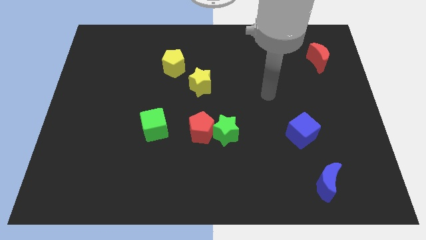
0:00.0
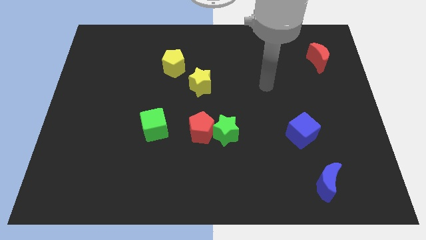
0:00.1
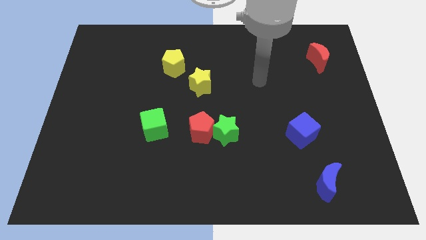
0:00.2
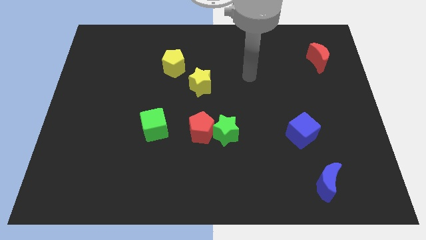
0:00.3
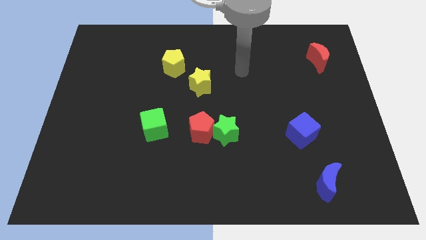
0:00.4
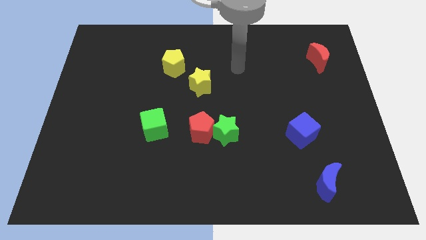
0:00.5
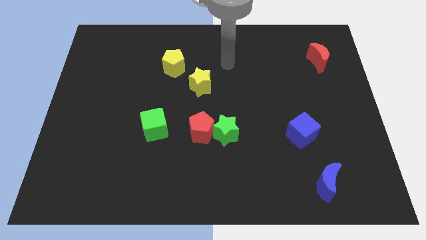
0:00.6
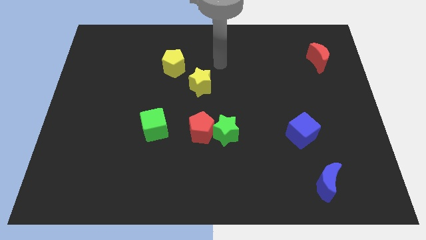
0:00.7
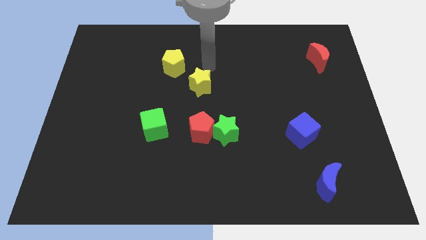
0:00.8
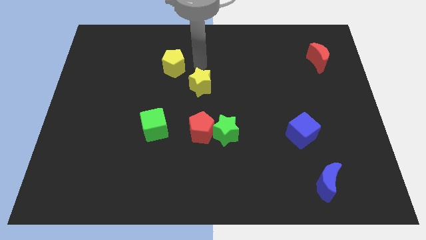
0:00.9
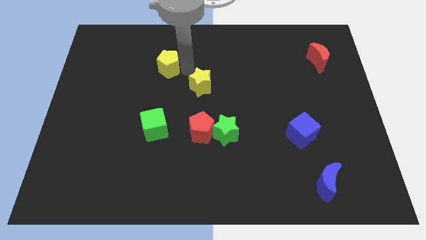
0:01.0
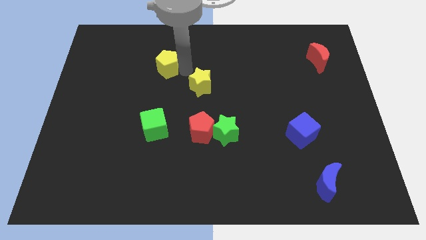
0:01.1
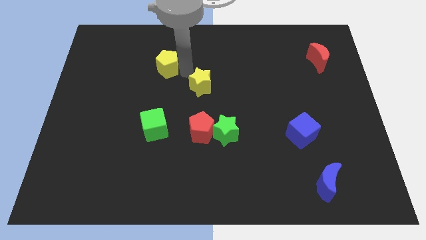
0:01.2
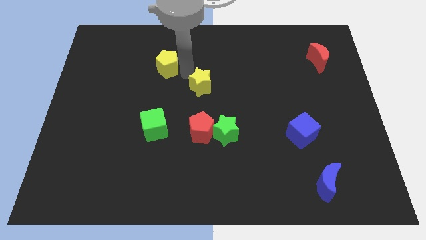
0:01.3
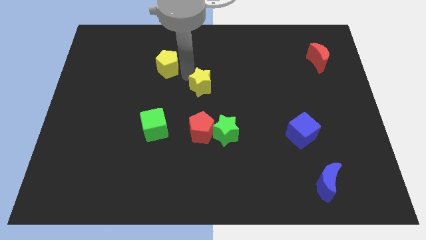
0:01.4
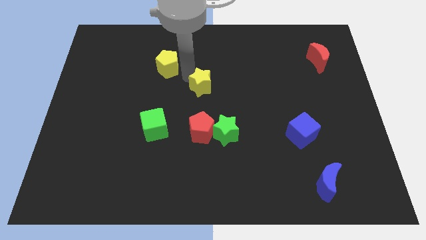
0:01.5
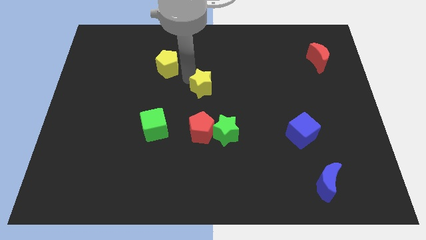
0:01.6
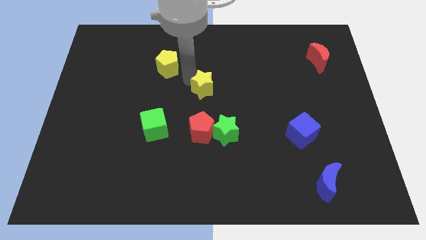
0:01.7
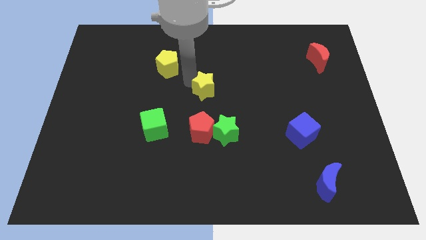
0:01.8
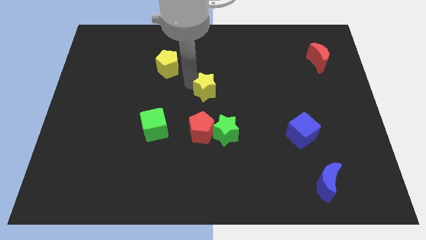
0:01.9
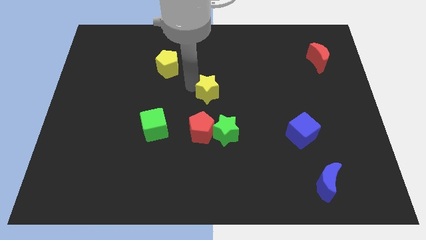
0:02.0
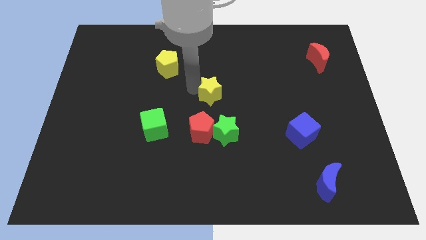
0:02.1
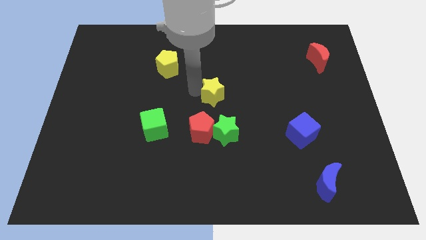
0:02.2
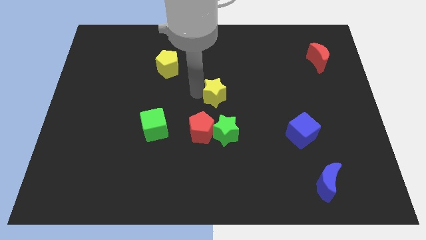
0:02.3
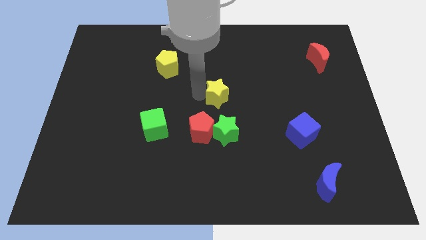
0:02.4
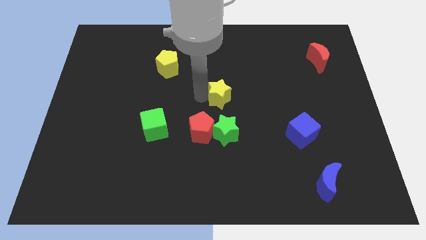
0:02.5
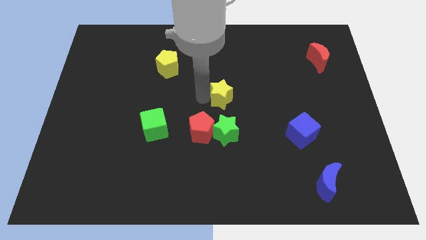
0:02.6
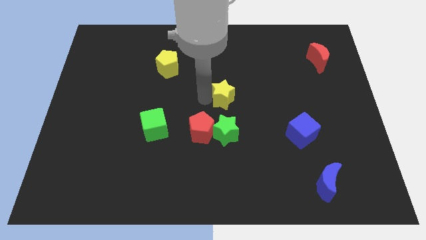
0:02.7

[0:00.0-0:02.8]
slide the yellow star somewhat downwards and right diagonally

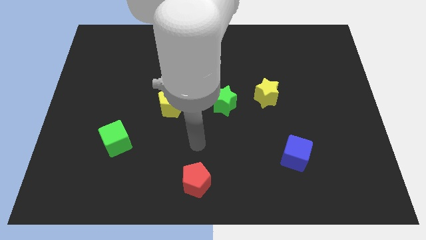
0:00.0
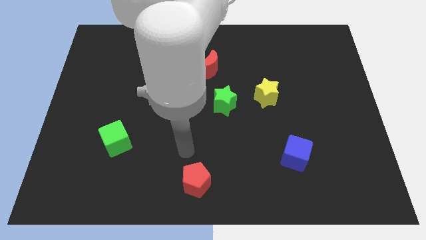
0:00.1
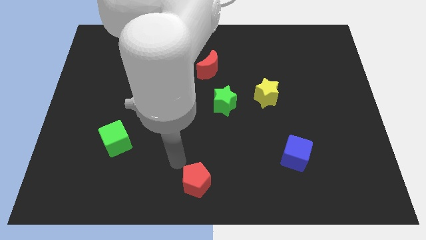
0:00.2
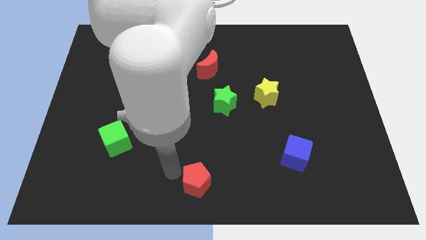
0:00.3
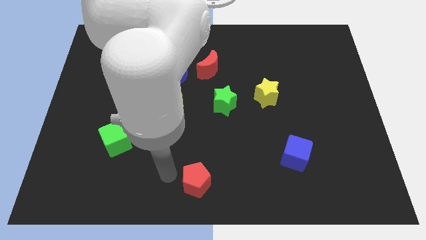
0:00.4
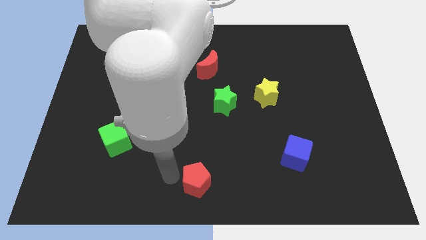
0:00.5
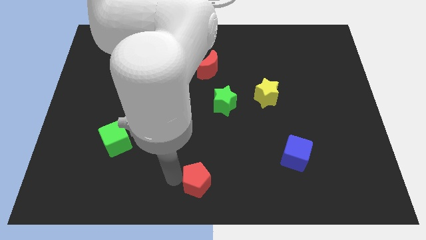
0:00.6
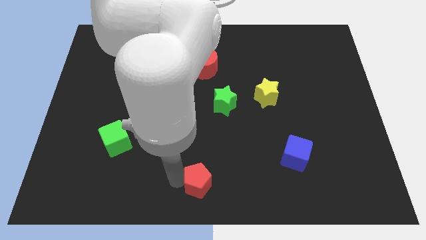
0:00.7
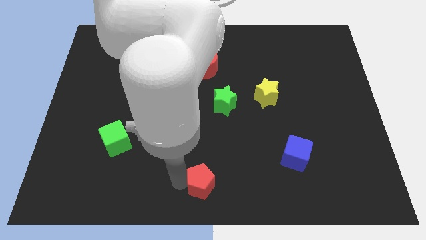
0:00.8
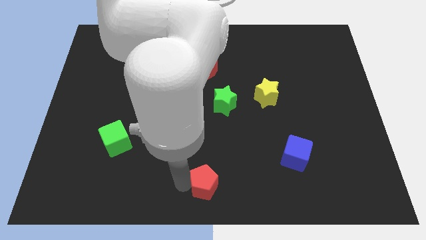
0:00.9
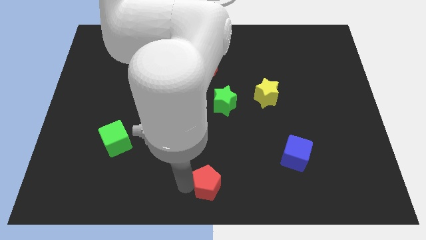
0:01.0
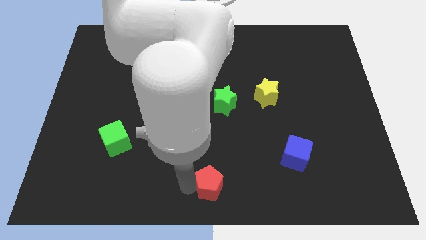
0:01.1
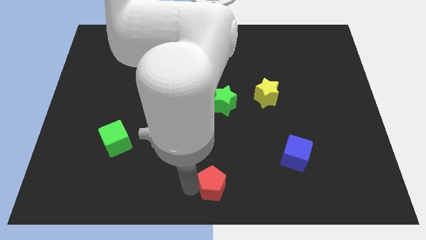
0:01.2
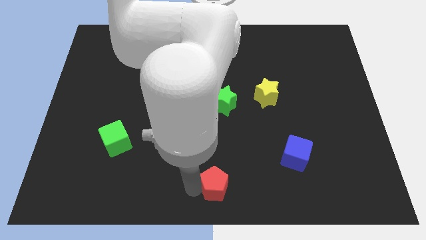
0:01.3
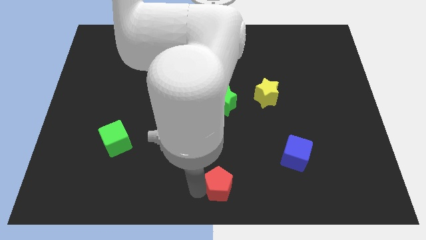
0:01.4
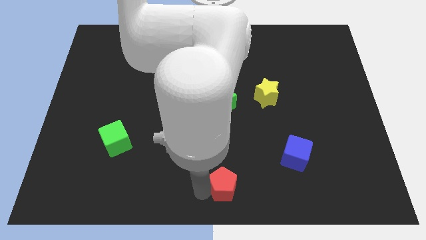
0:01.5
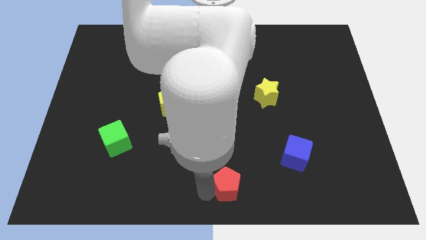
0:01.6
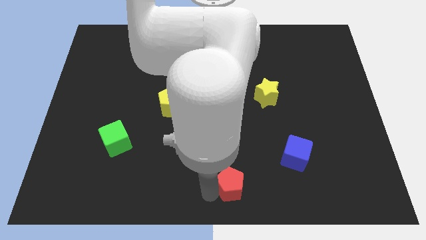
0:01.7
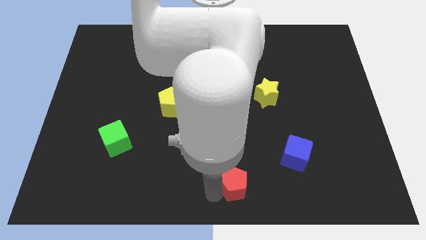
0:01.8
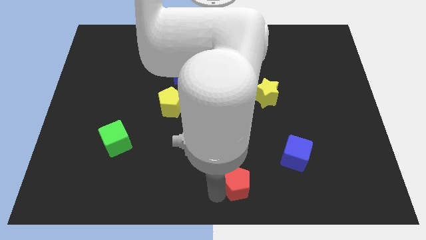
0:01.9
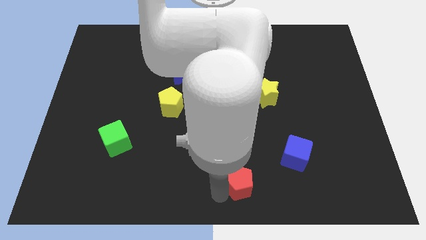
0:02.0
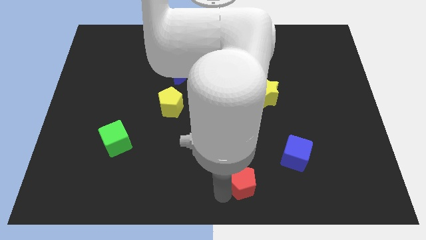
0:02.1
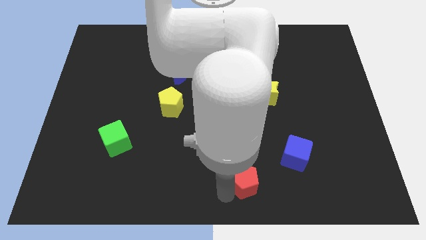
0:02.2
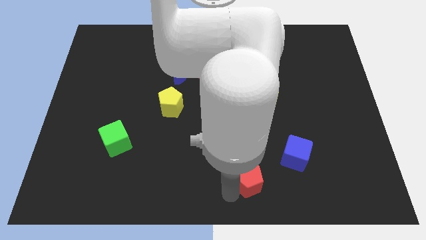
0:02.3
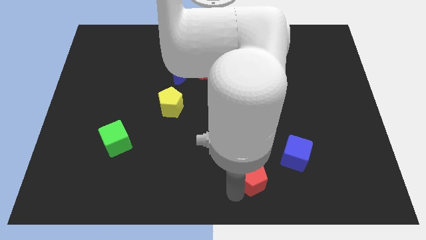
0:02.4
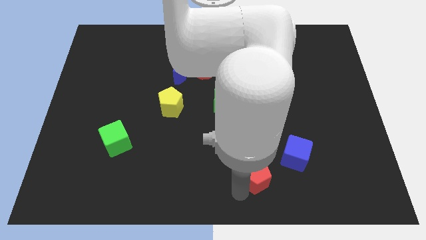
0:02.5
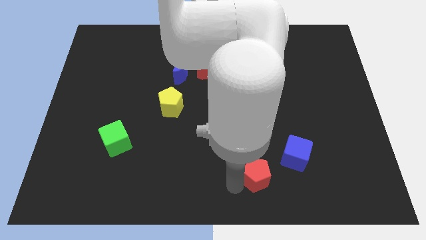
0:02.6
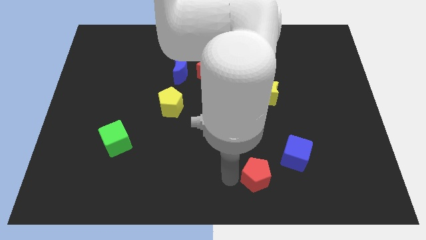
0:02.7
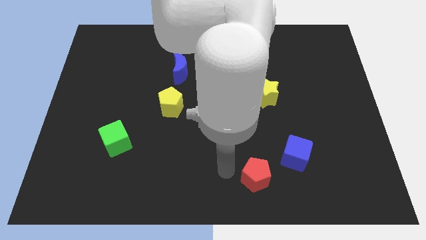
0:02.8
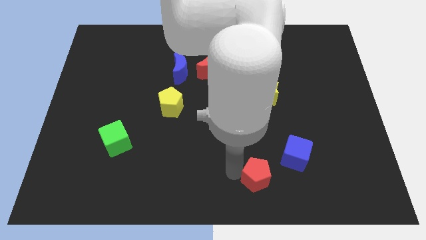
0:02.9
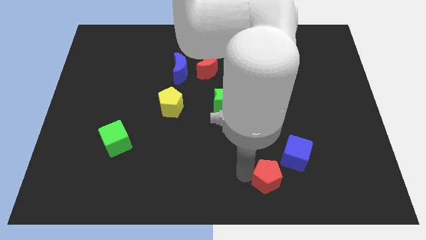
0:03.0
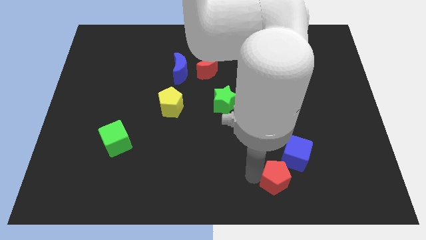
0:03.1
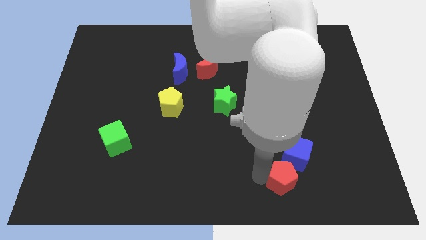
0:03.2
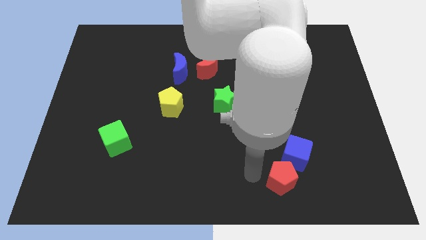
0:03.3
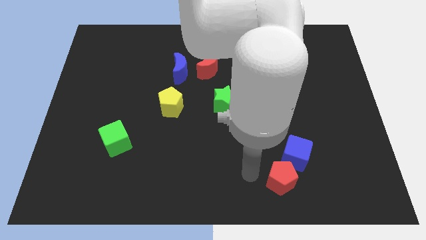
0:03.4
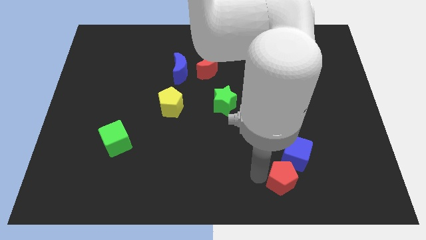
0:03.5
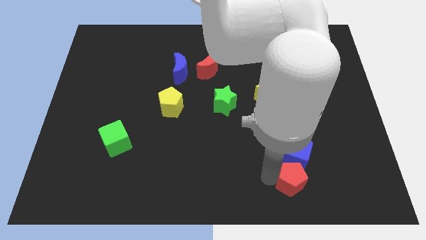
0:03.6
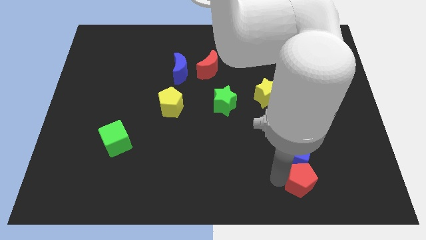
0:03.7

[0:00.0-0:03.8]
move the red pentagon to the right

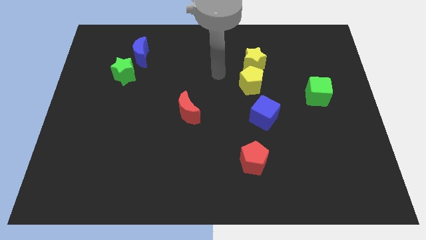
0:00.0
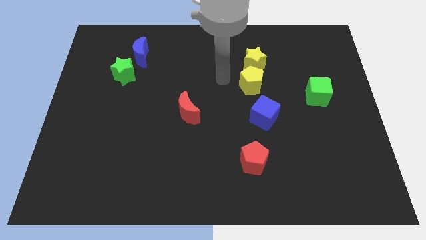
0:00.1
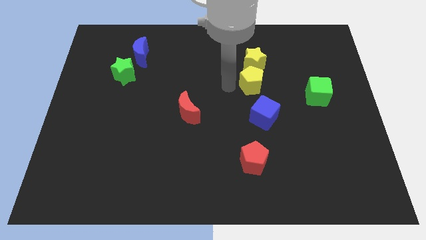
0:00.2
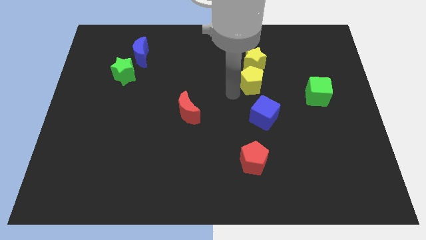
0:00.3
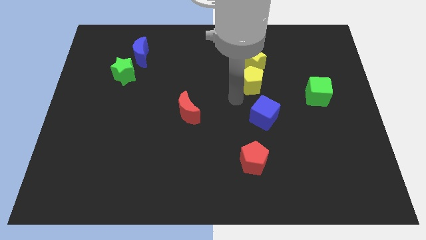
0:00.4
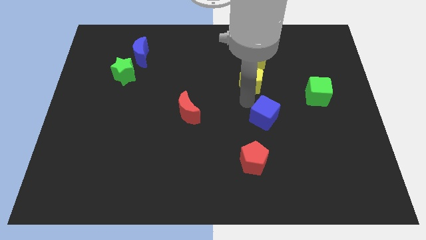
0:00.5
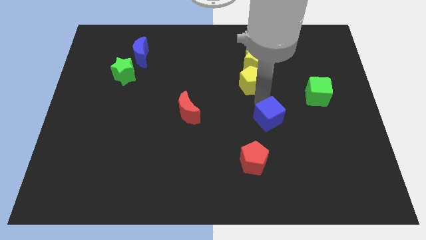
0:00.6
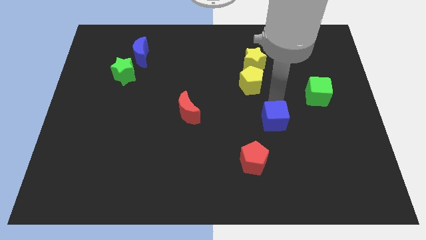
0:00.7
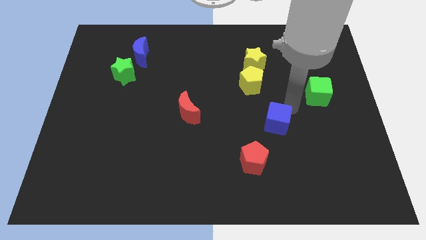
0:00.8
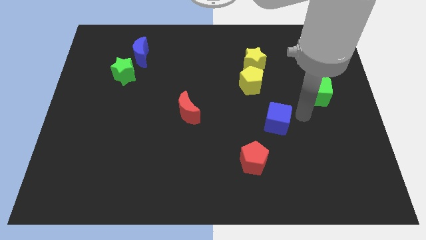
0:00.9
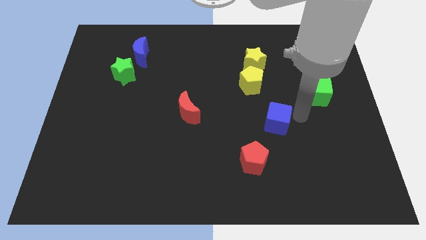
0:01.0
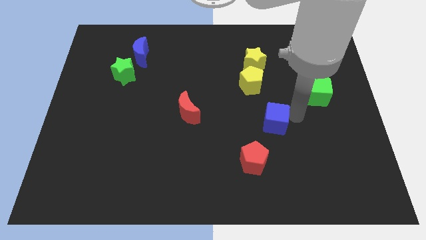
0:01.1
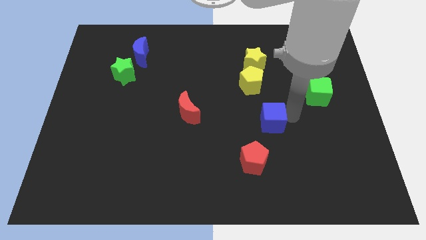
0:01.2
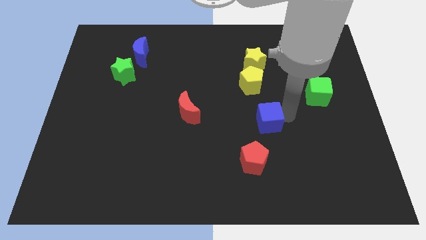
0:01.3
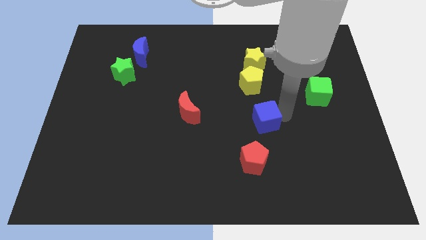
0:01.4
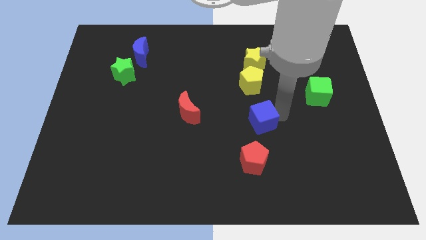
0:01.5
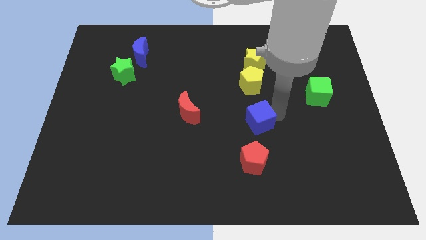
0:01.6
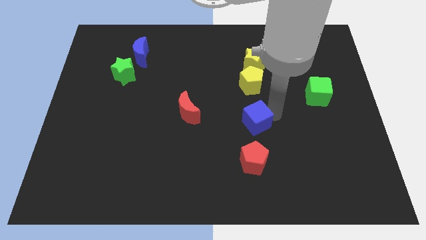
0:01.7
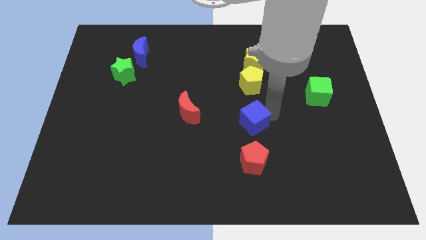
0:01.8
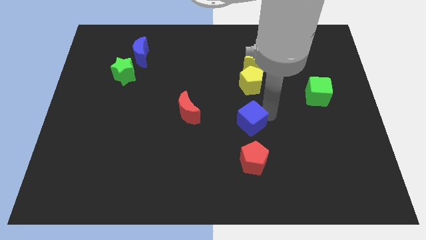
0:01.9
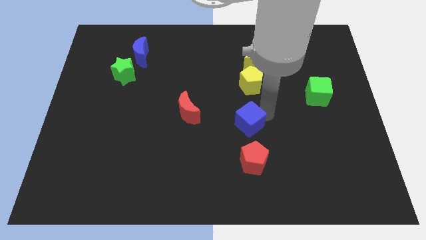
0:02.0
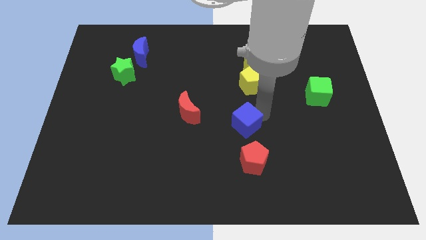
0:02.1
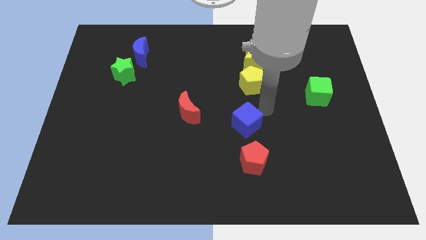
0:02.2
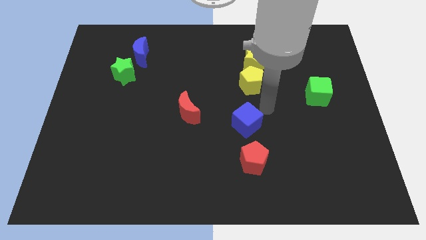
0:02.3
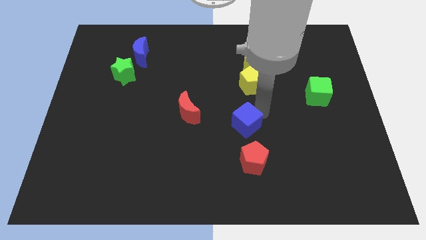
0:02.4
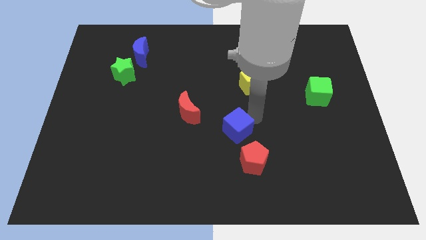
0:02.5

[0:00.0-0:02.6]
slightly push the blue cube down and then to the left
